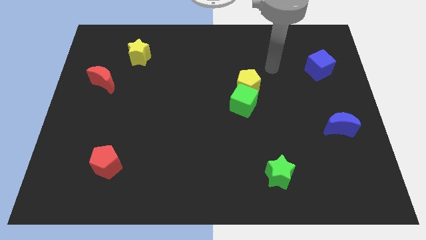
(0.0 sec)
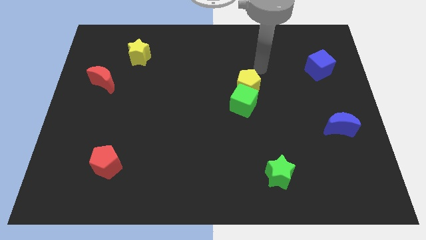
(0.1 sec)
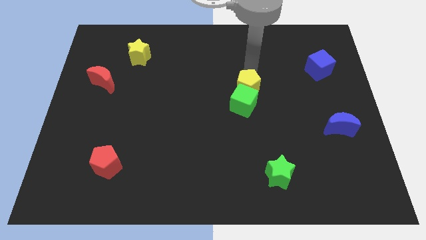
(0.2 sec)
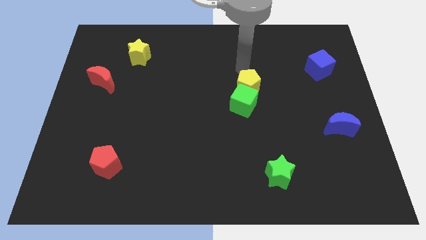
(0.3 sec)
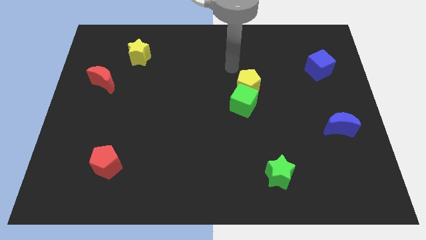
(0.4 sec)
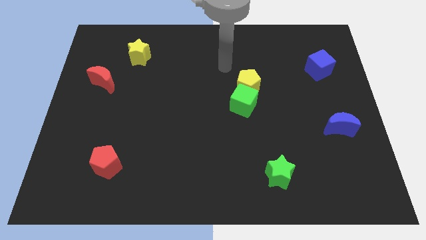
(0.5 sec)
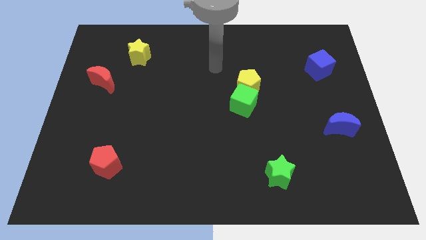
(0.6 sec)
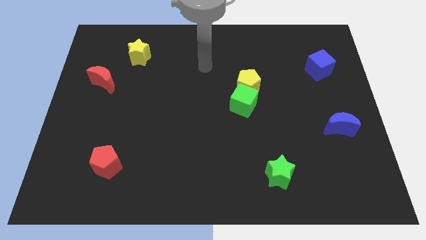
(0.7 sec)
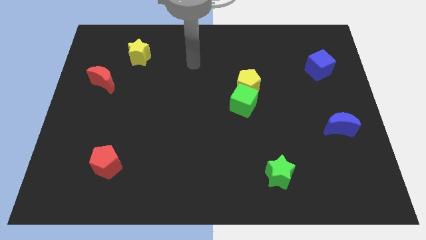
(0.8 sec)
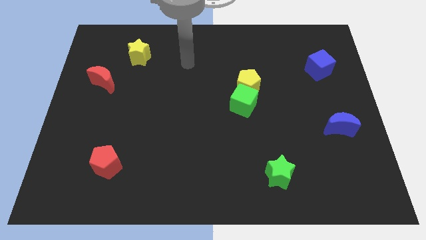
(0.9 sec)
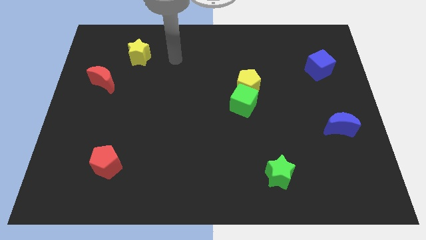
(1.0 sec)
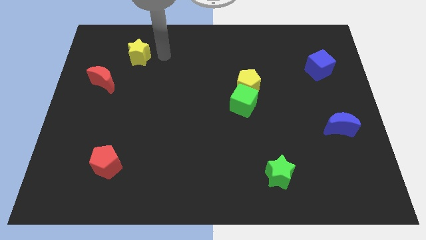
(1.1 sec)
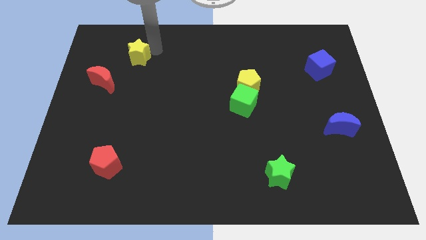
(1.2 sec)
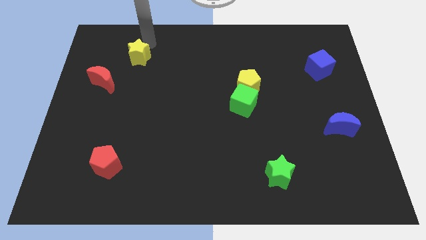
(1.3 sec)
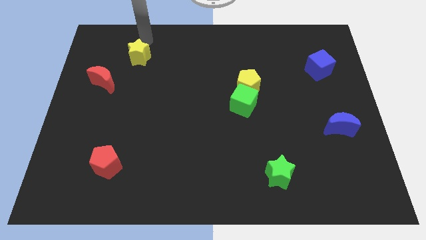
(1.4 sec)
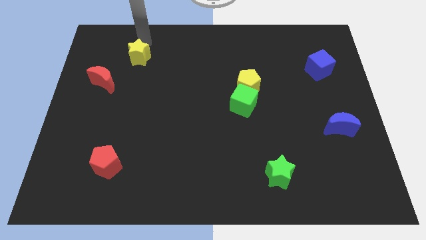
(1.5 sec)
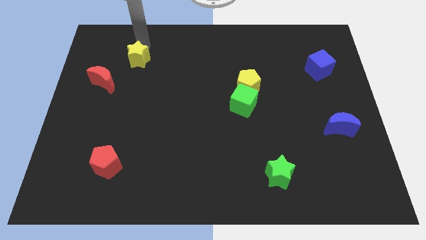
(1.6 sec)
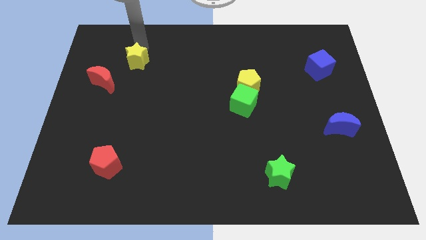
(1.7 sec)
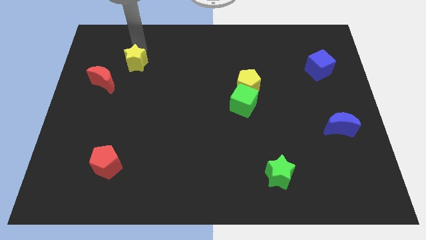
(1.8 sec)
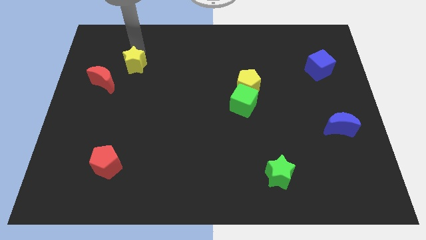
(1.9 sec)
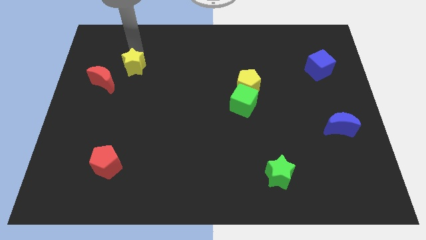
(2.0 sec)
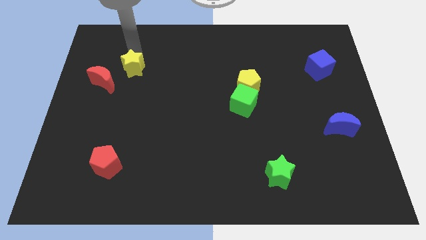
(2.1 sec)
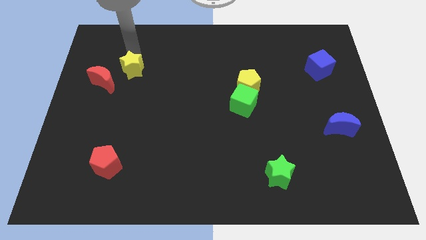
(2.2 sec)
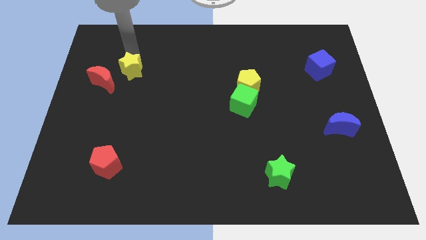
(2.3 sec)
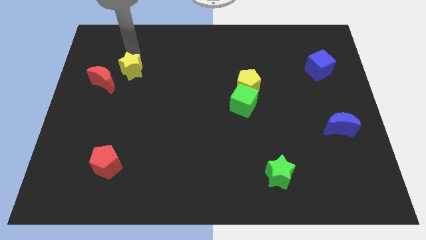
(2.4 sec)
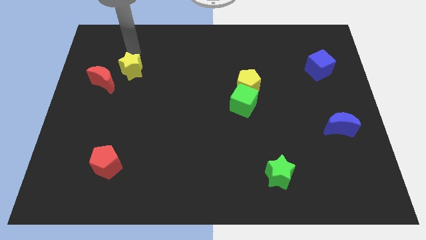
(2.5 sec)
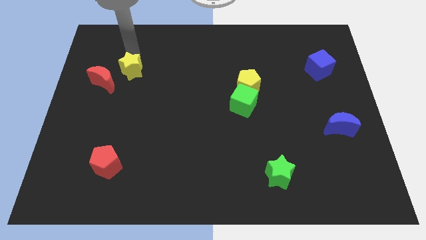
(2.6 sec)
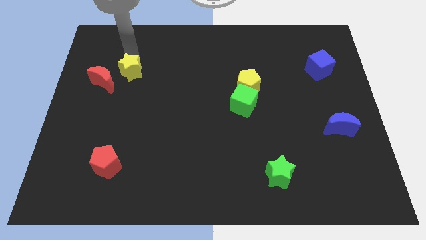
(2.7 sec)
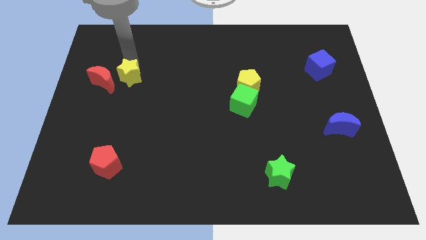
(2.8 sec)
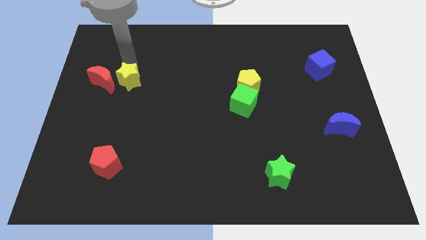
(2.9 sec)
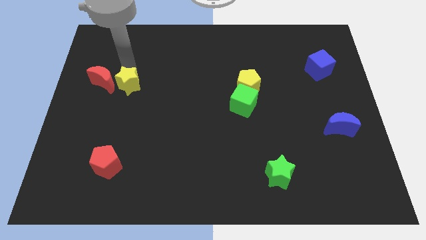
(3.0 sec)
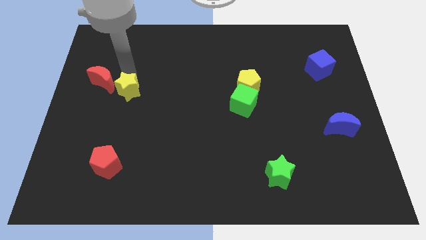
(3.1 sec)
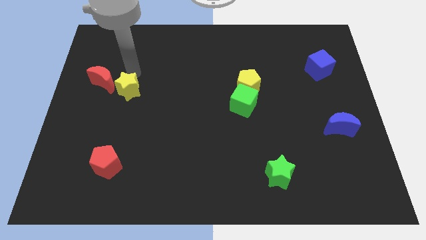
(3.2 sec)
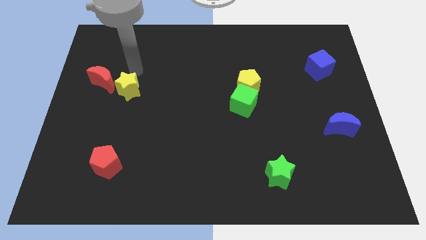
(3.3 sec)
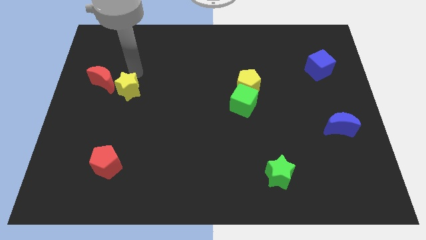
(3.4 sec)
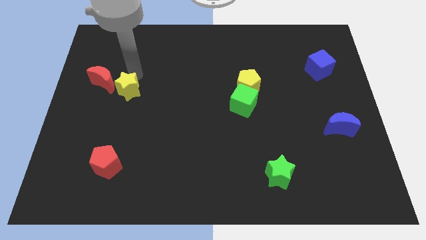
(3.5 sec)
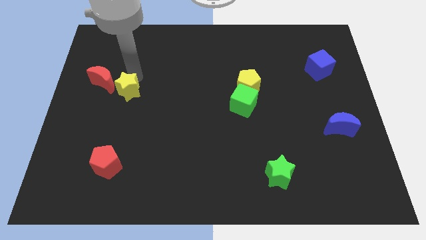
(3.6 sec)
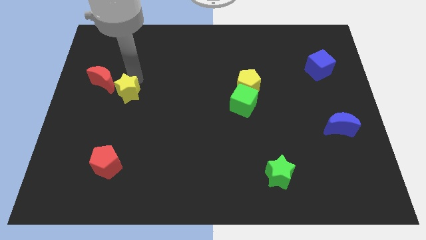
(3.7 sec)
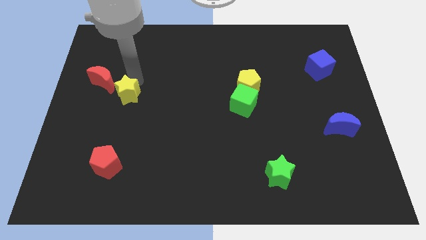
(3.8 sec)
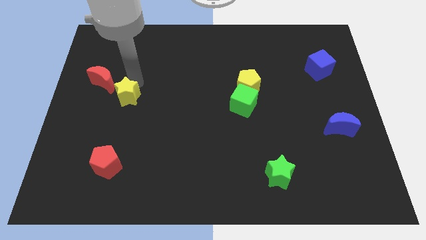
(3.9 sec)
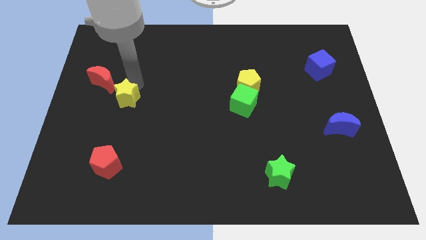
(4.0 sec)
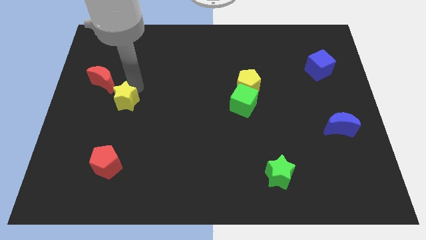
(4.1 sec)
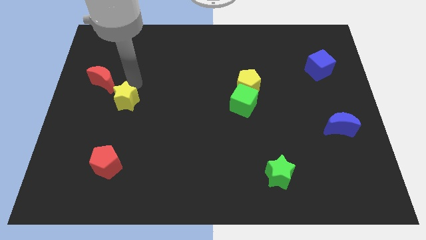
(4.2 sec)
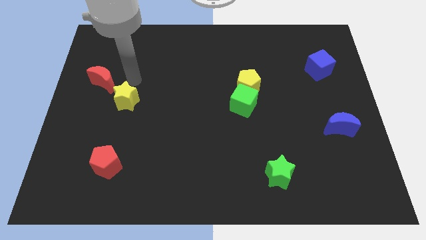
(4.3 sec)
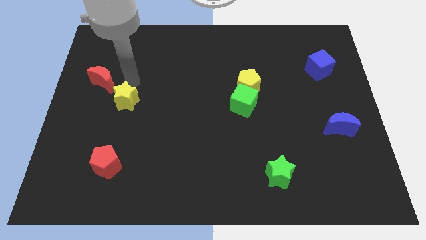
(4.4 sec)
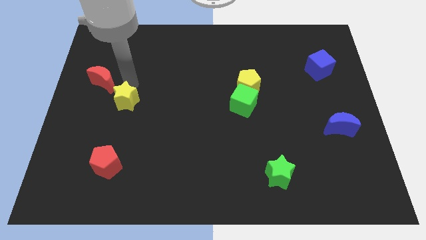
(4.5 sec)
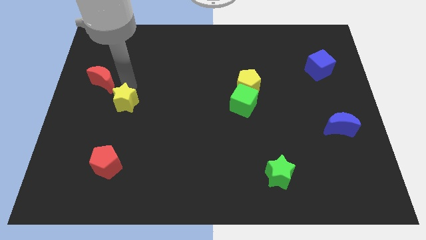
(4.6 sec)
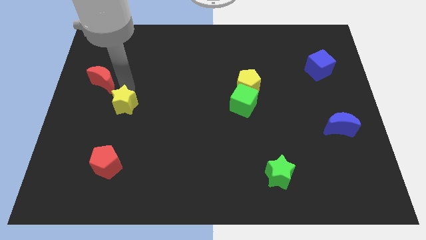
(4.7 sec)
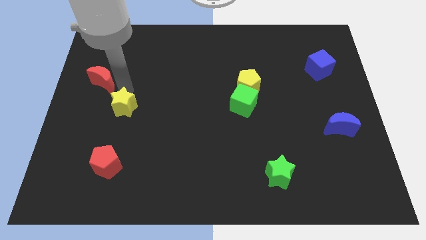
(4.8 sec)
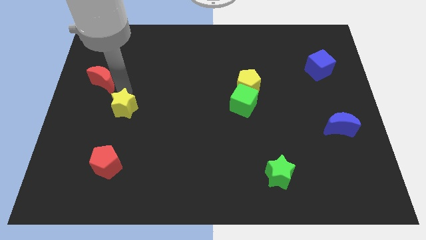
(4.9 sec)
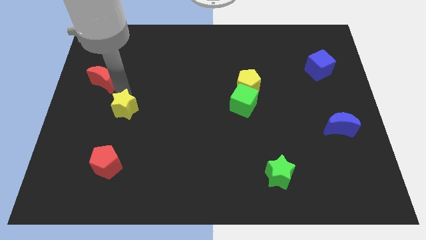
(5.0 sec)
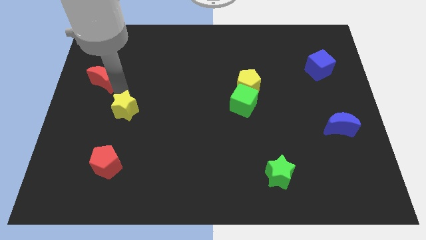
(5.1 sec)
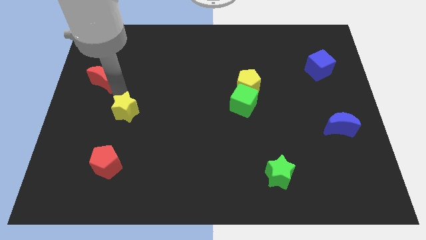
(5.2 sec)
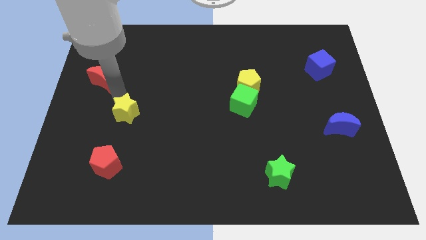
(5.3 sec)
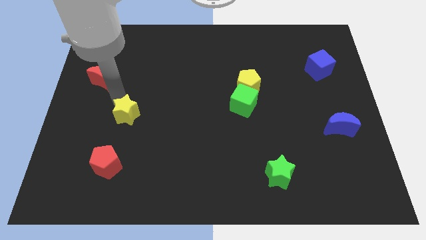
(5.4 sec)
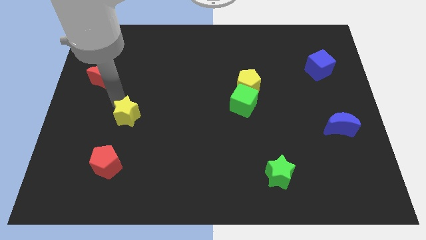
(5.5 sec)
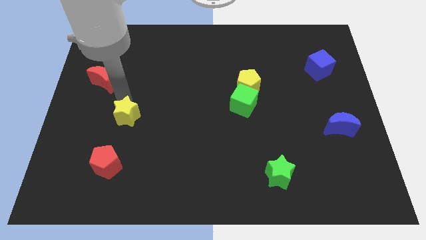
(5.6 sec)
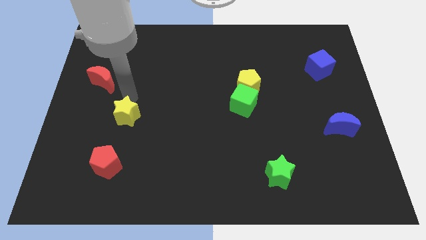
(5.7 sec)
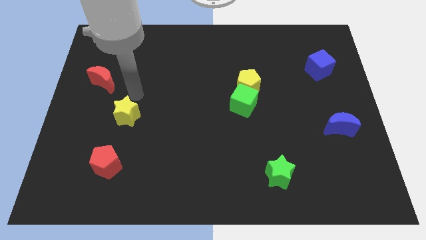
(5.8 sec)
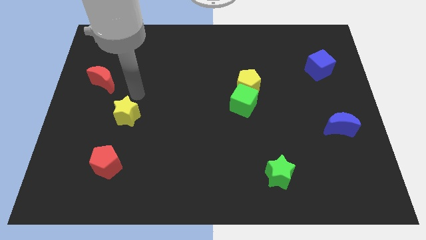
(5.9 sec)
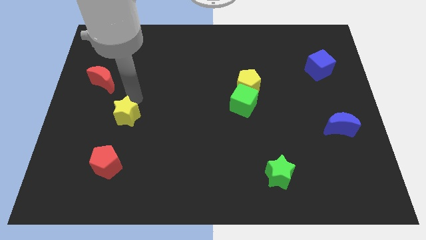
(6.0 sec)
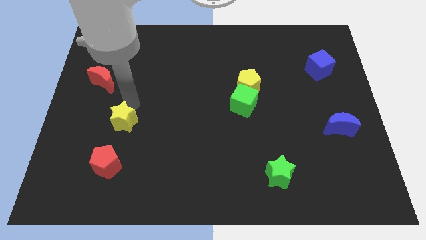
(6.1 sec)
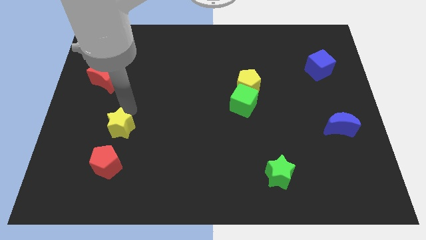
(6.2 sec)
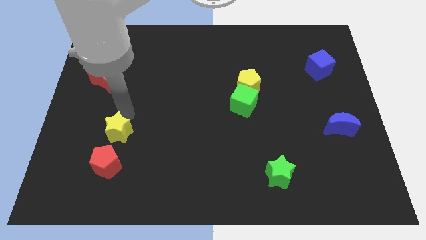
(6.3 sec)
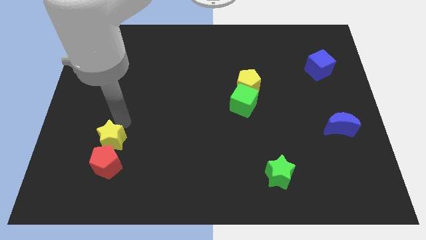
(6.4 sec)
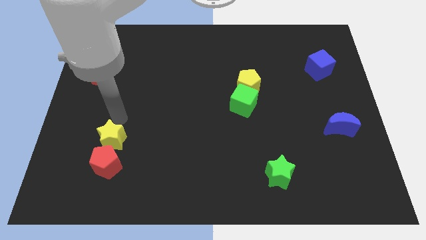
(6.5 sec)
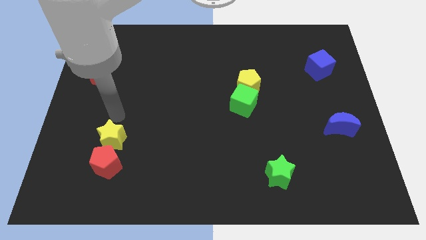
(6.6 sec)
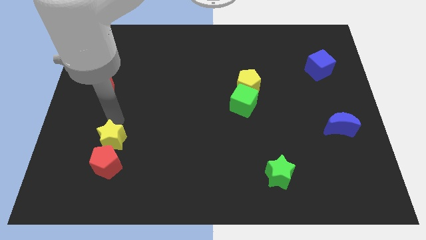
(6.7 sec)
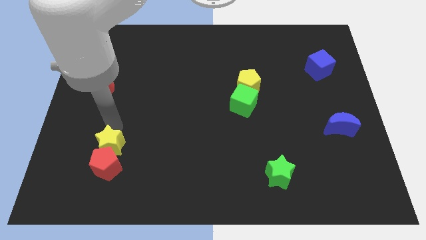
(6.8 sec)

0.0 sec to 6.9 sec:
move the yellow star to the red pentagon

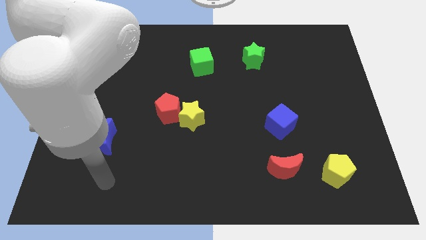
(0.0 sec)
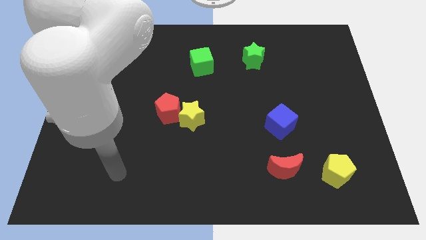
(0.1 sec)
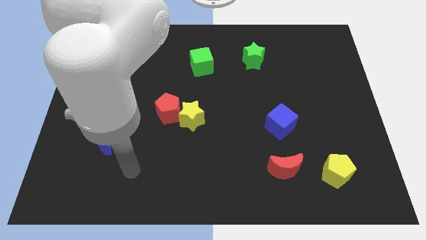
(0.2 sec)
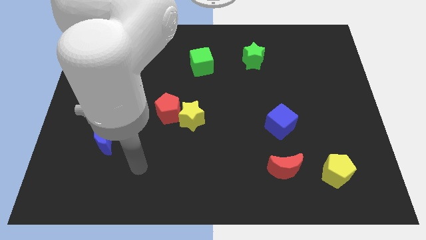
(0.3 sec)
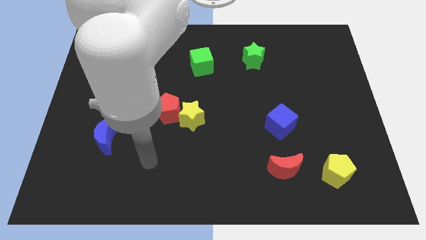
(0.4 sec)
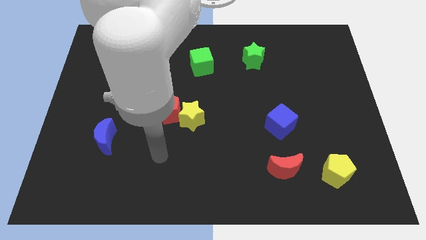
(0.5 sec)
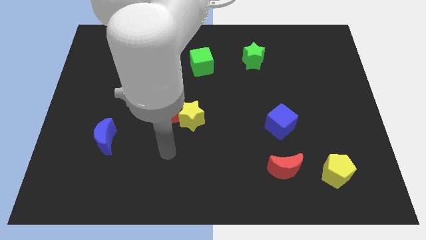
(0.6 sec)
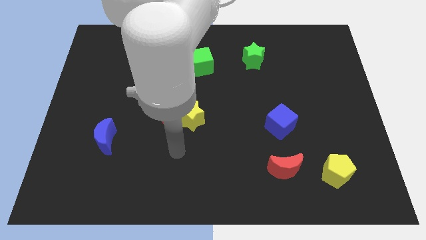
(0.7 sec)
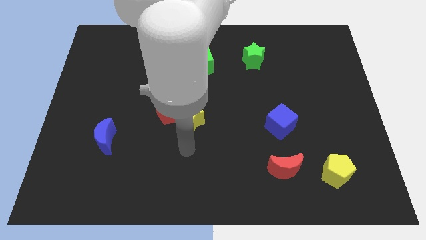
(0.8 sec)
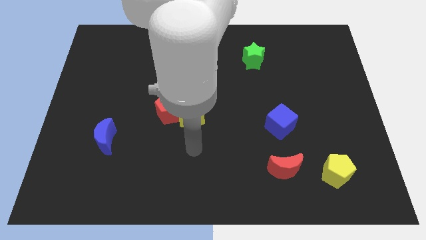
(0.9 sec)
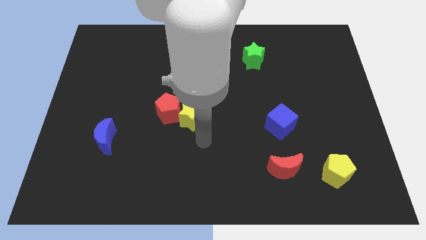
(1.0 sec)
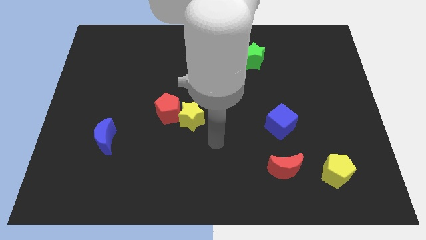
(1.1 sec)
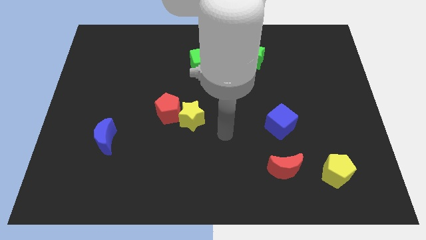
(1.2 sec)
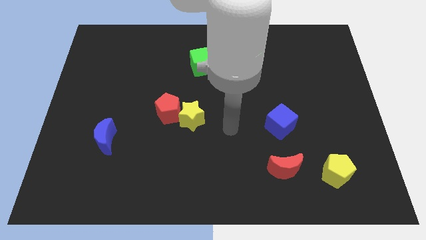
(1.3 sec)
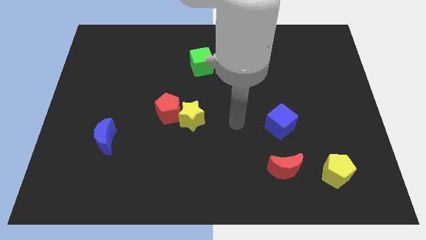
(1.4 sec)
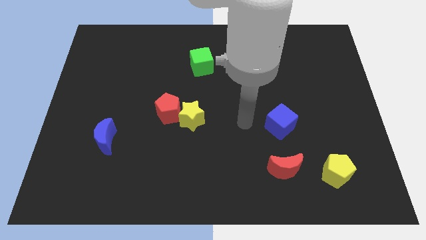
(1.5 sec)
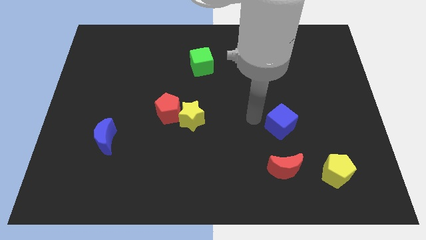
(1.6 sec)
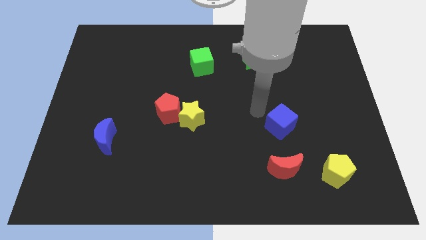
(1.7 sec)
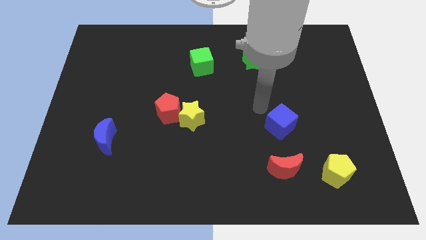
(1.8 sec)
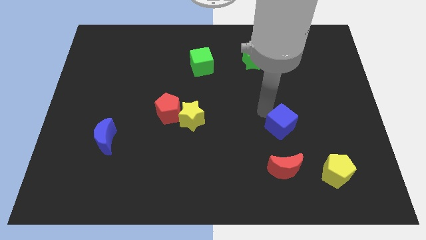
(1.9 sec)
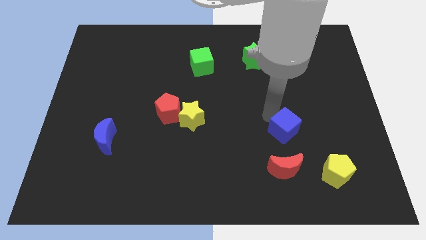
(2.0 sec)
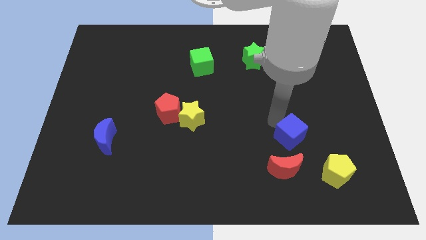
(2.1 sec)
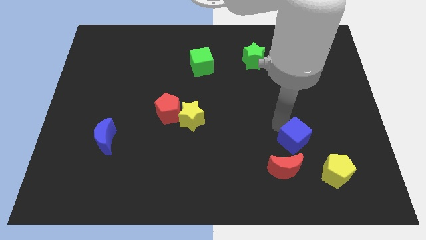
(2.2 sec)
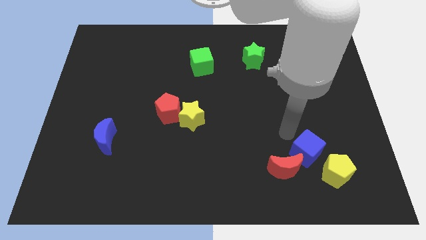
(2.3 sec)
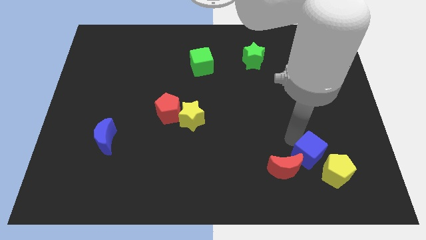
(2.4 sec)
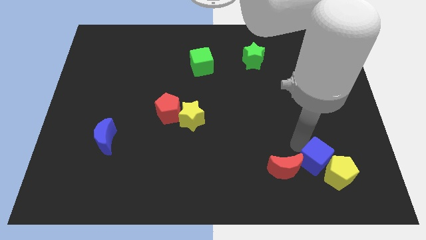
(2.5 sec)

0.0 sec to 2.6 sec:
slide the blue cube towards the yellow pentagon
